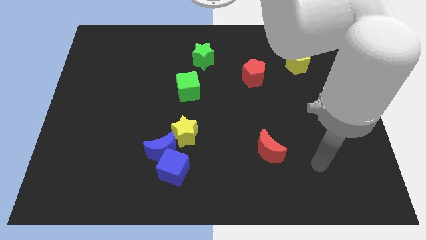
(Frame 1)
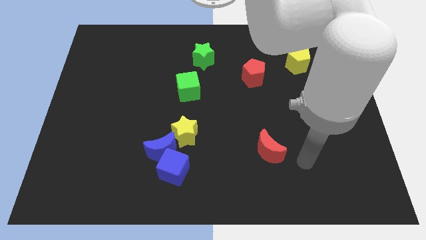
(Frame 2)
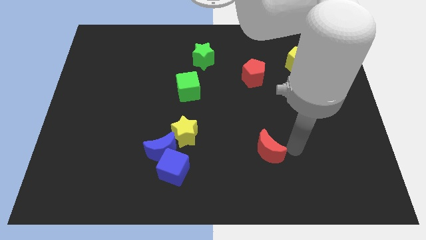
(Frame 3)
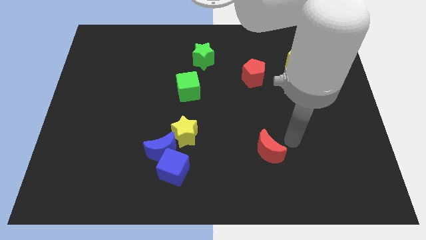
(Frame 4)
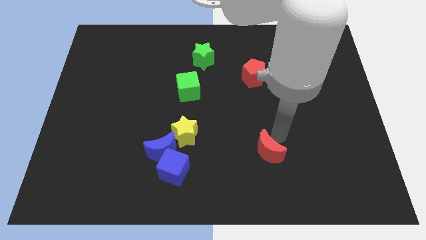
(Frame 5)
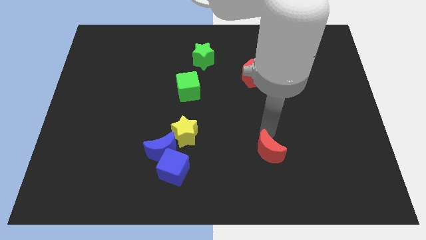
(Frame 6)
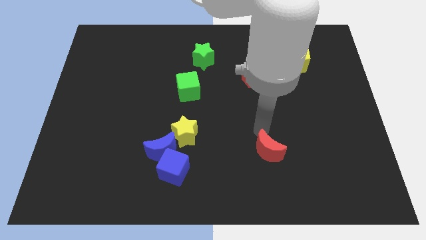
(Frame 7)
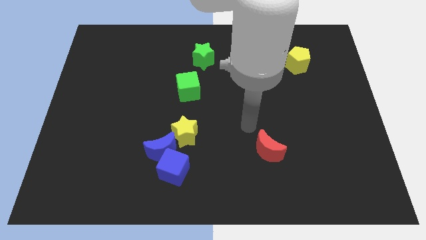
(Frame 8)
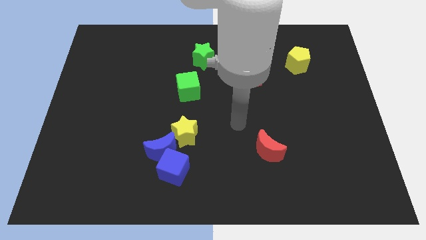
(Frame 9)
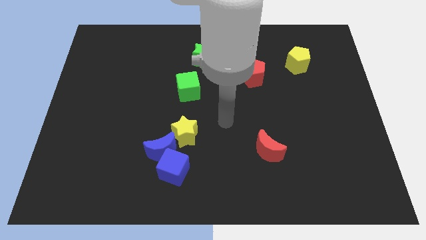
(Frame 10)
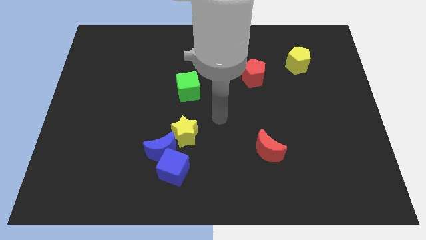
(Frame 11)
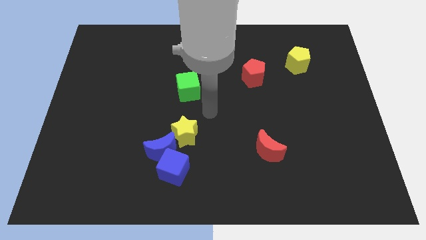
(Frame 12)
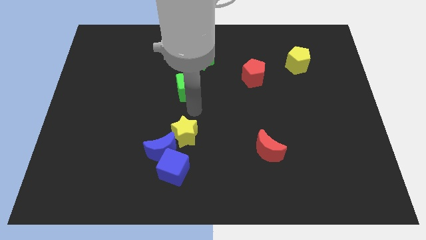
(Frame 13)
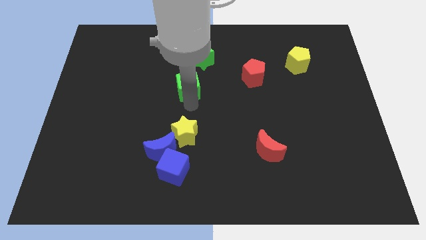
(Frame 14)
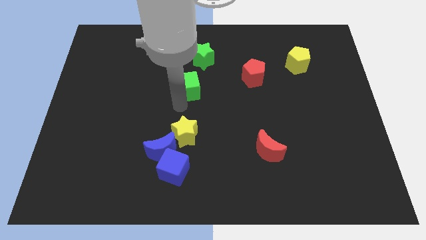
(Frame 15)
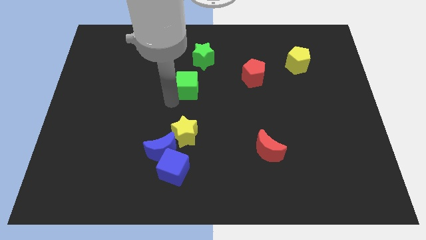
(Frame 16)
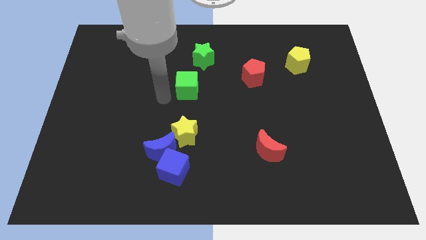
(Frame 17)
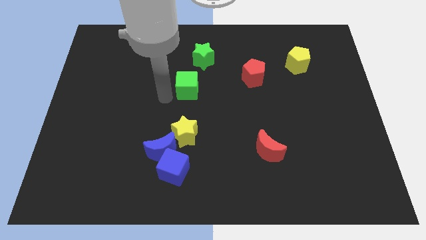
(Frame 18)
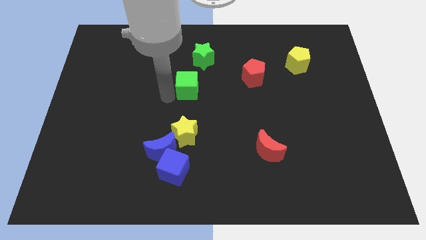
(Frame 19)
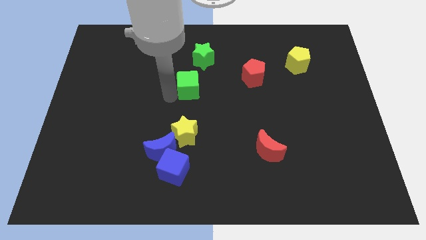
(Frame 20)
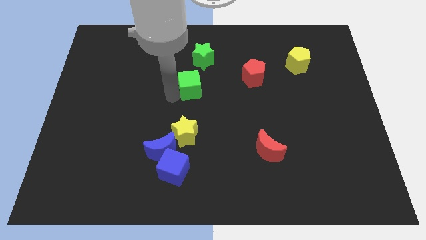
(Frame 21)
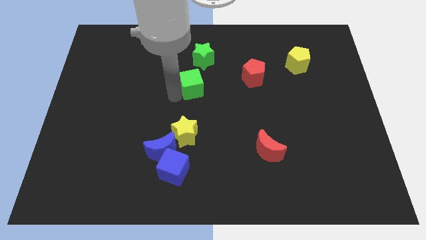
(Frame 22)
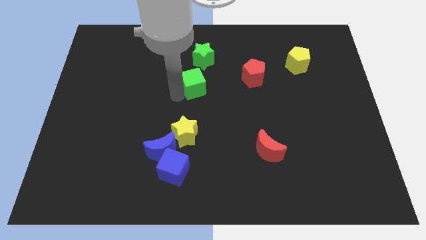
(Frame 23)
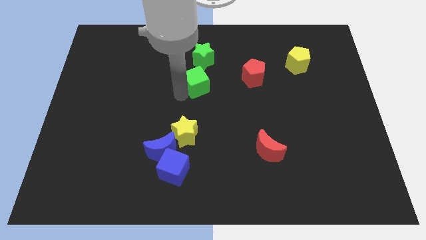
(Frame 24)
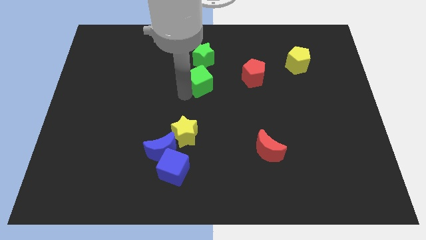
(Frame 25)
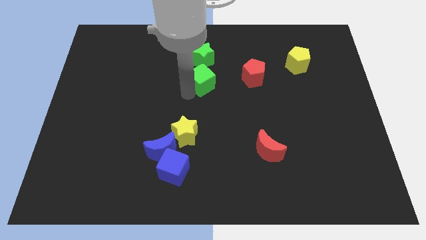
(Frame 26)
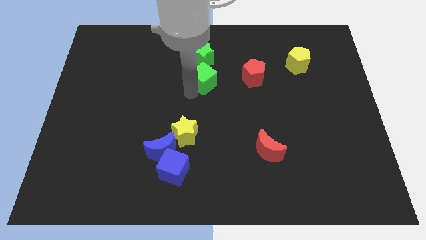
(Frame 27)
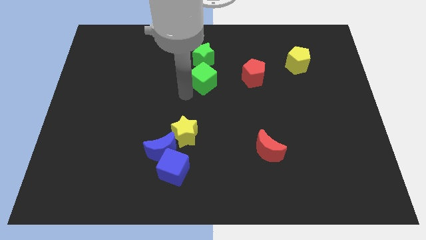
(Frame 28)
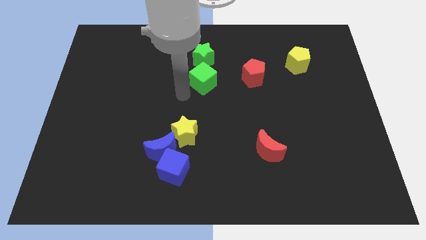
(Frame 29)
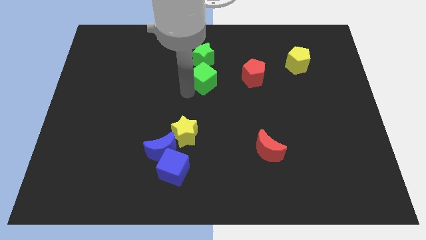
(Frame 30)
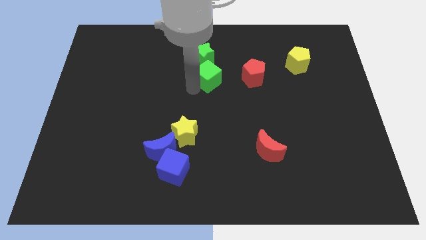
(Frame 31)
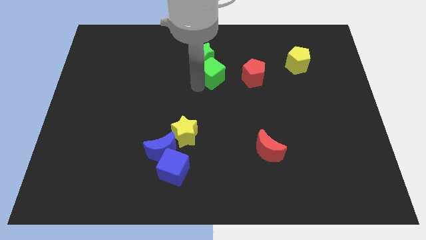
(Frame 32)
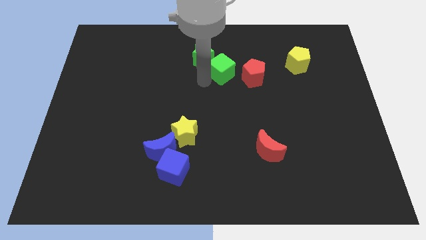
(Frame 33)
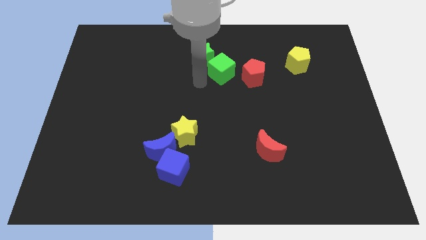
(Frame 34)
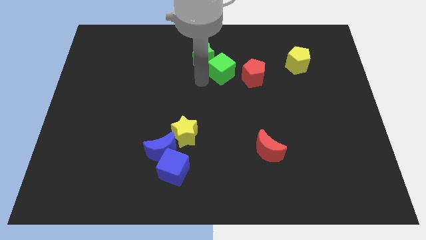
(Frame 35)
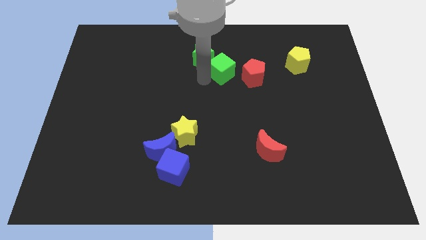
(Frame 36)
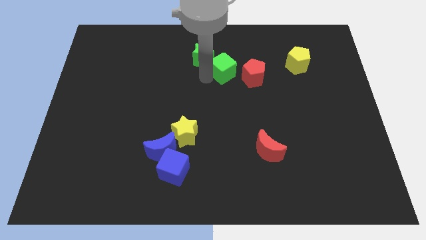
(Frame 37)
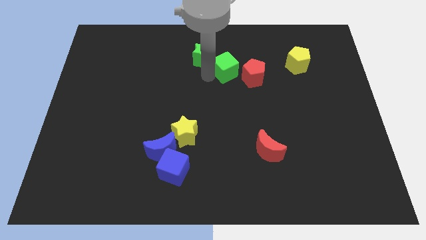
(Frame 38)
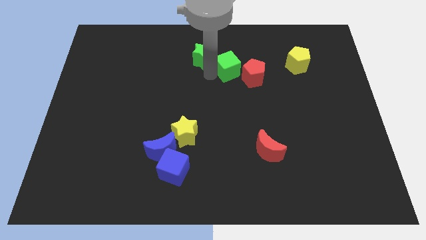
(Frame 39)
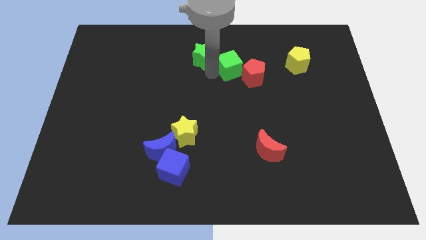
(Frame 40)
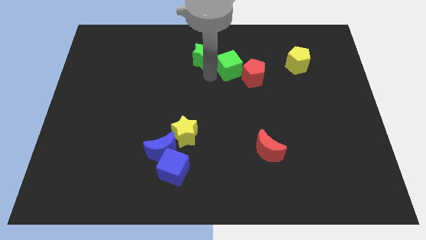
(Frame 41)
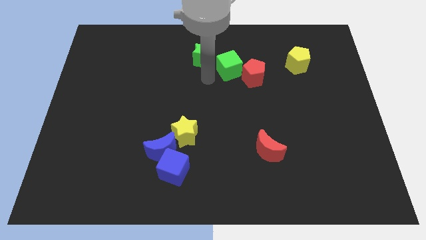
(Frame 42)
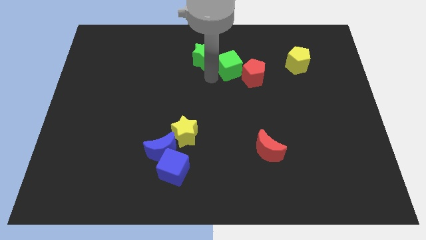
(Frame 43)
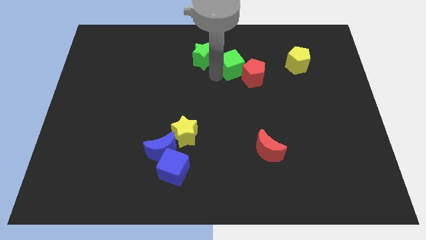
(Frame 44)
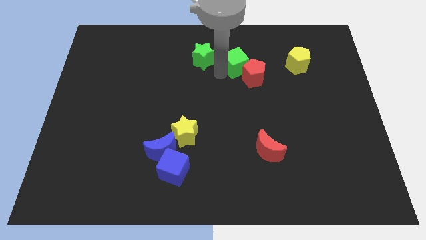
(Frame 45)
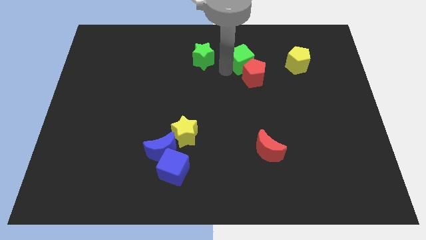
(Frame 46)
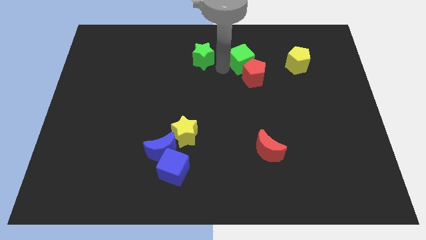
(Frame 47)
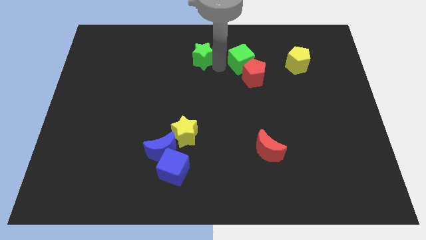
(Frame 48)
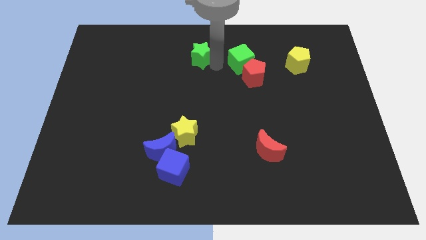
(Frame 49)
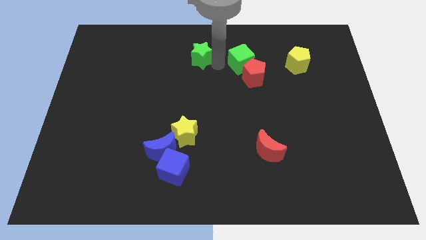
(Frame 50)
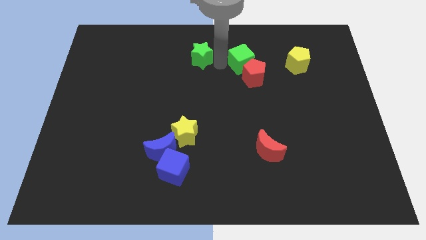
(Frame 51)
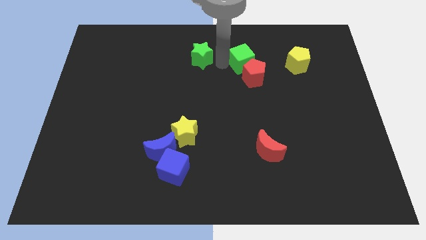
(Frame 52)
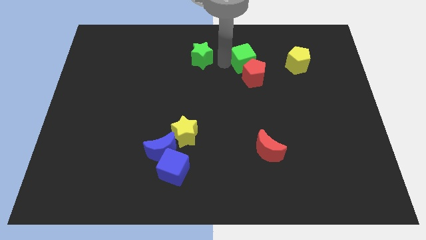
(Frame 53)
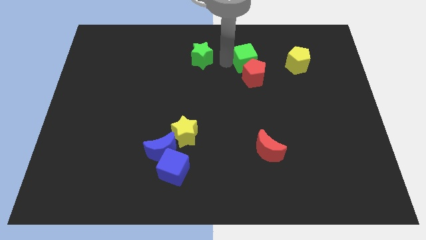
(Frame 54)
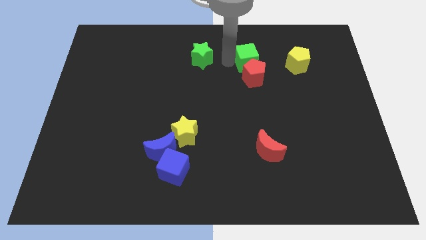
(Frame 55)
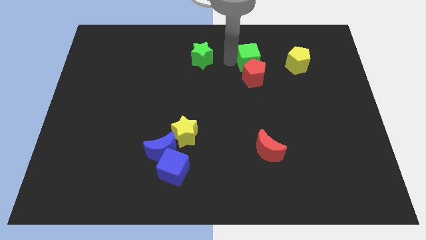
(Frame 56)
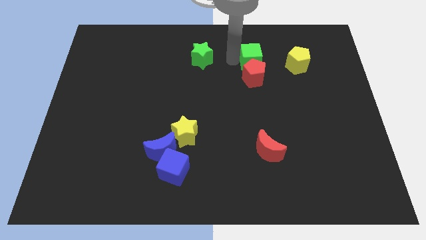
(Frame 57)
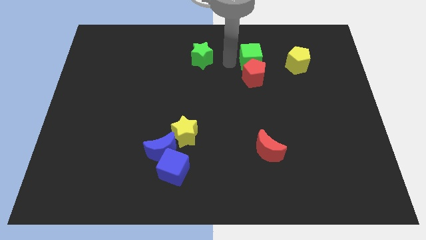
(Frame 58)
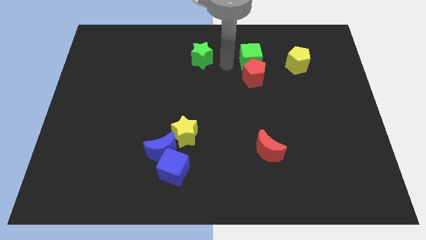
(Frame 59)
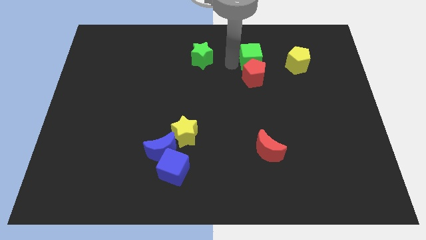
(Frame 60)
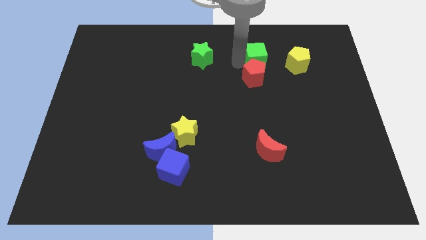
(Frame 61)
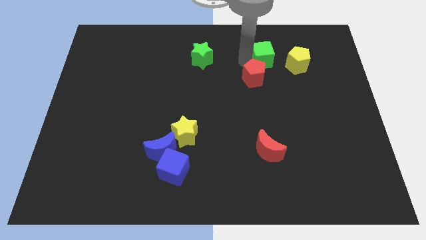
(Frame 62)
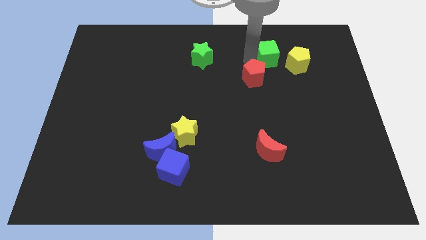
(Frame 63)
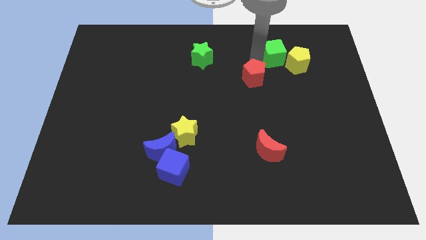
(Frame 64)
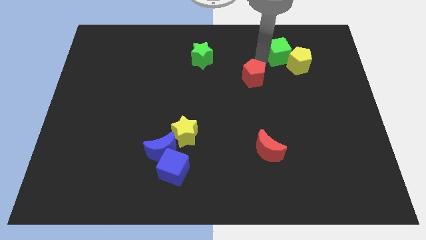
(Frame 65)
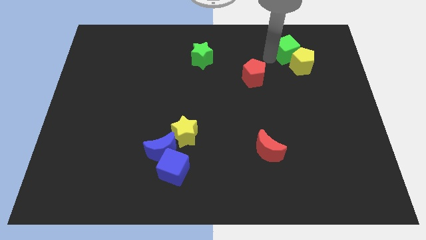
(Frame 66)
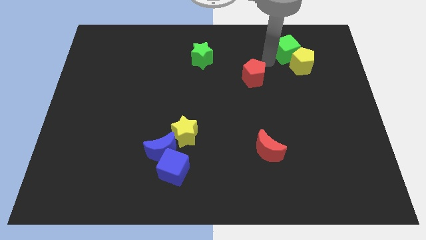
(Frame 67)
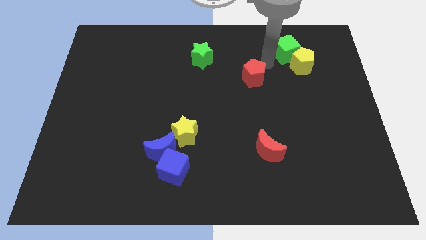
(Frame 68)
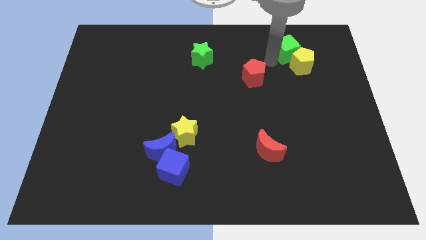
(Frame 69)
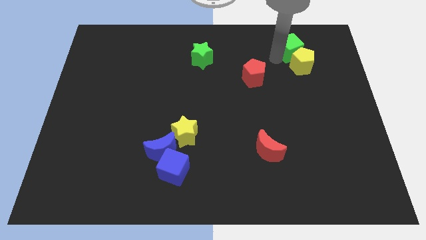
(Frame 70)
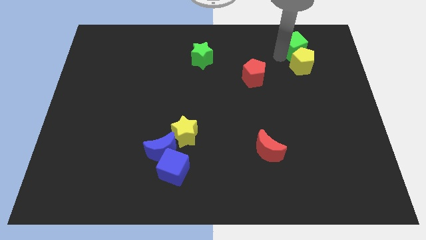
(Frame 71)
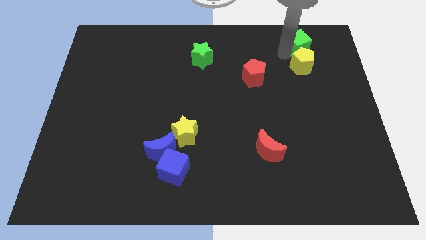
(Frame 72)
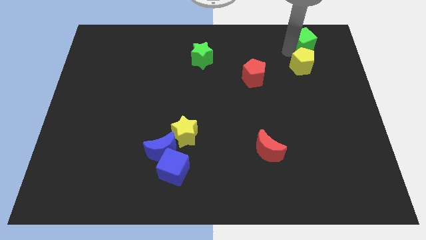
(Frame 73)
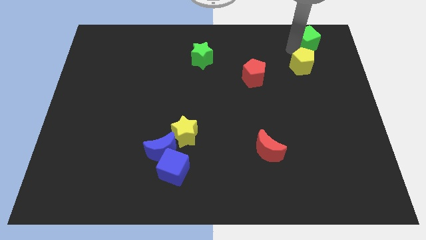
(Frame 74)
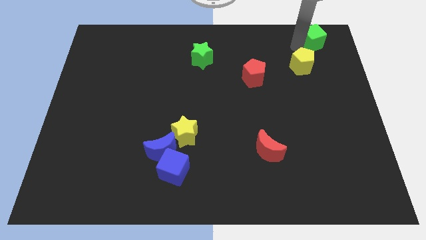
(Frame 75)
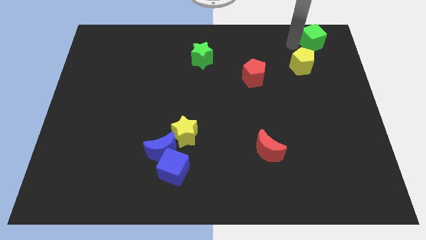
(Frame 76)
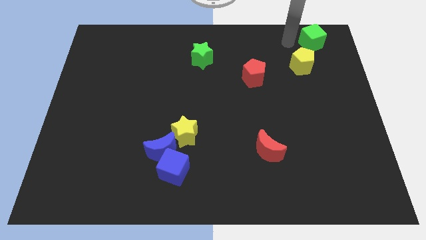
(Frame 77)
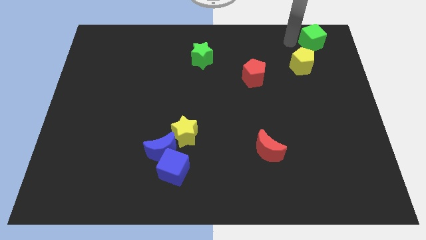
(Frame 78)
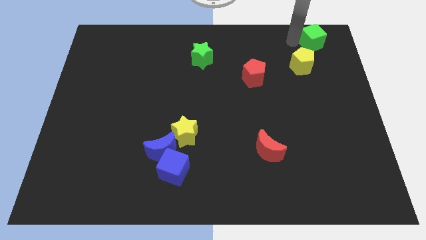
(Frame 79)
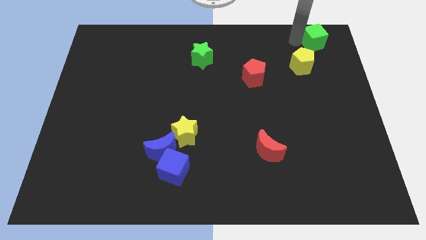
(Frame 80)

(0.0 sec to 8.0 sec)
move the green cube to the top right
